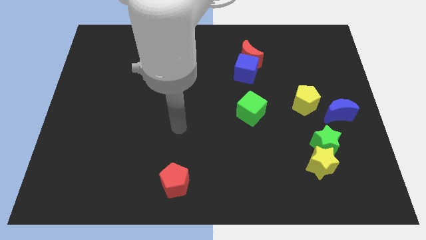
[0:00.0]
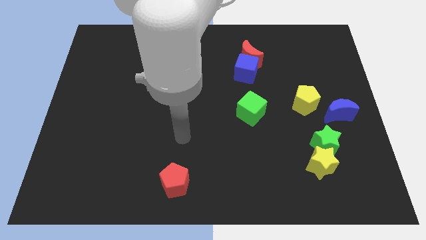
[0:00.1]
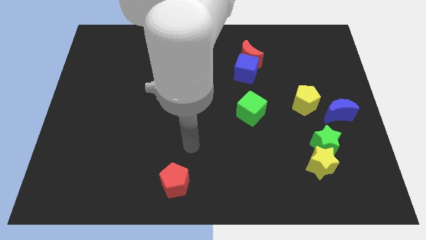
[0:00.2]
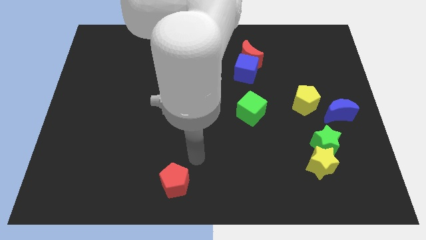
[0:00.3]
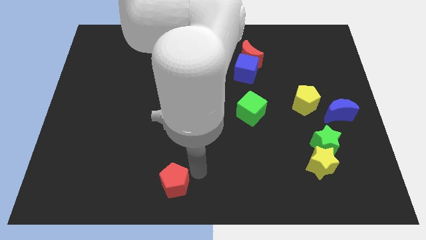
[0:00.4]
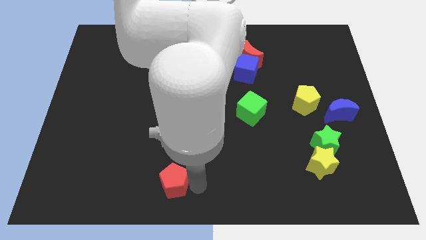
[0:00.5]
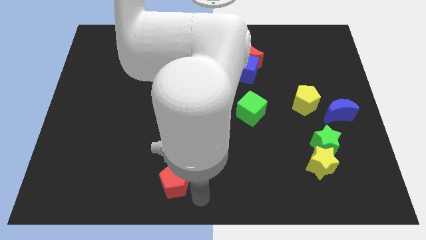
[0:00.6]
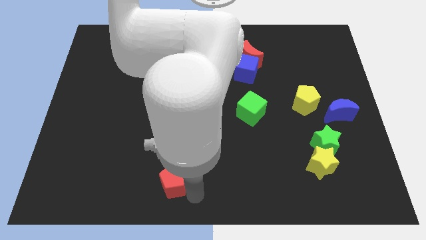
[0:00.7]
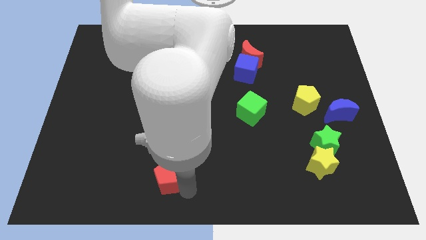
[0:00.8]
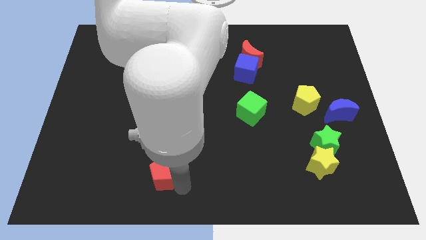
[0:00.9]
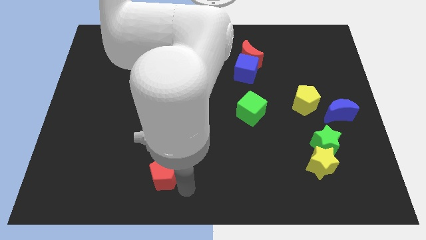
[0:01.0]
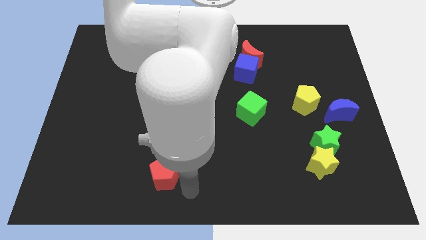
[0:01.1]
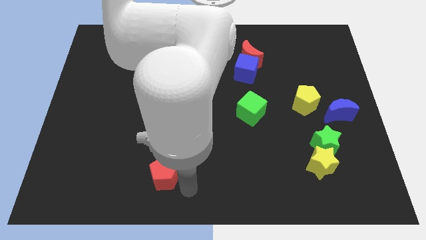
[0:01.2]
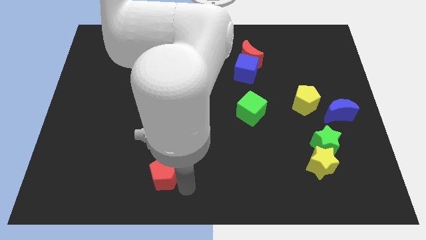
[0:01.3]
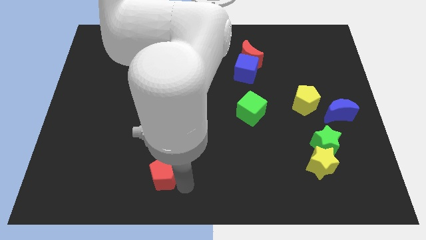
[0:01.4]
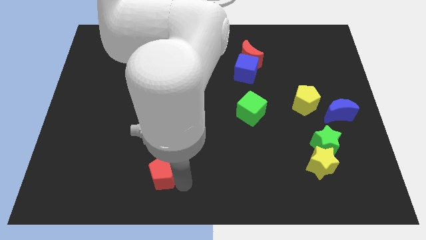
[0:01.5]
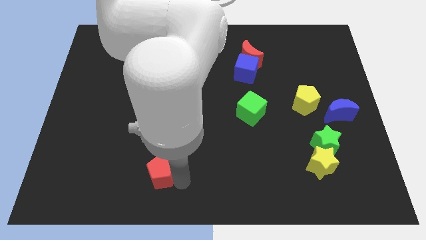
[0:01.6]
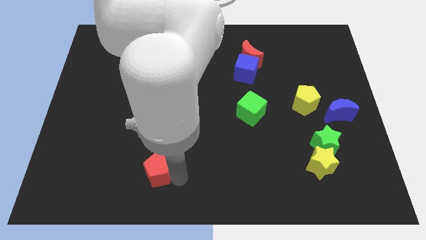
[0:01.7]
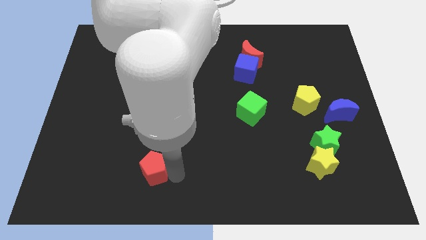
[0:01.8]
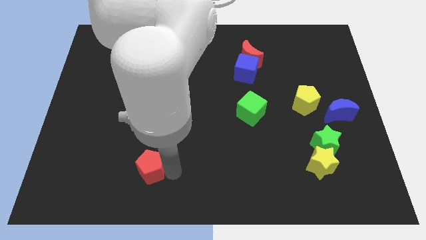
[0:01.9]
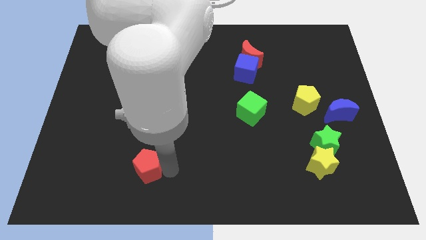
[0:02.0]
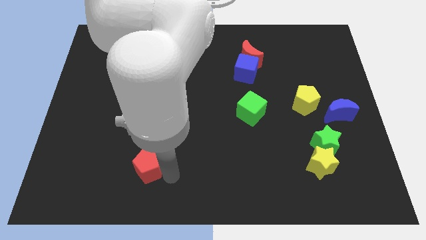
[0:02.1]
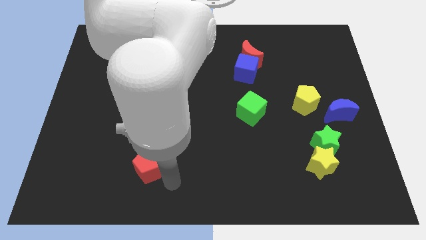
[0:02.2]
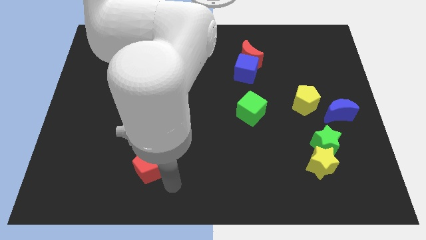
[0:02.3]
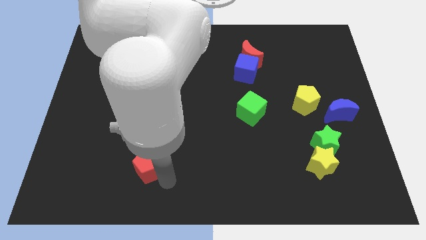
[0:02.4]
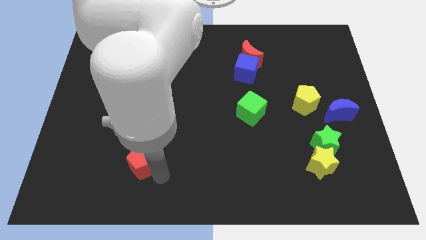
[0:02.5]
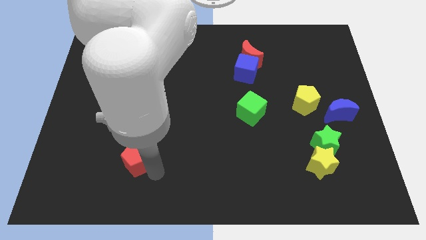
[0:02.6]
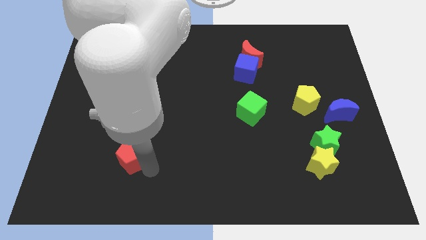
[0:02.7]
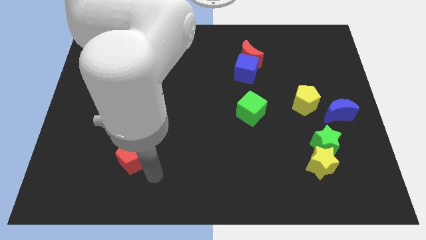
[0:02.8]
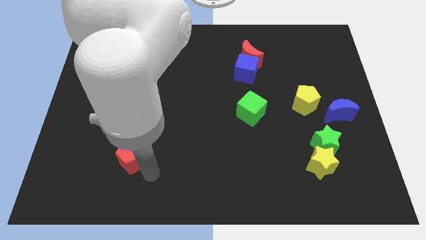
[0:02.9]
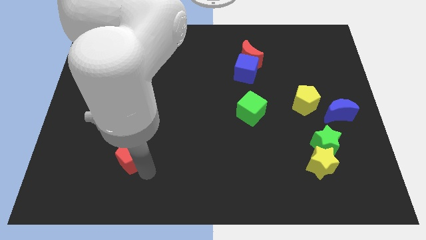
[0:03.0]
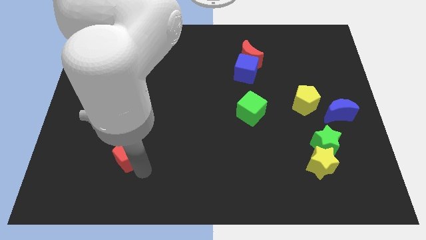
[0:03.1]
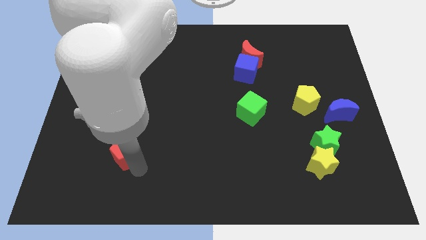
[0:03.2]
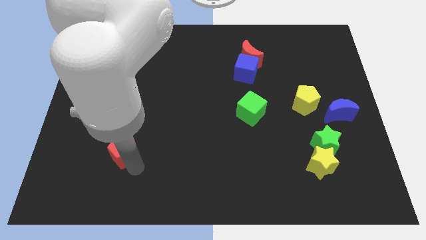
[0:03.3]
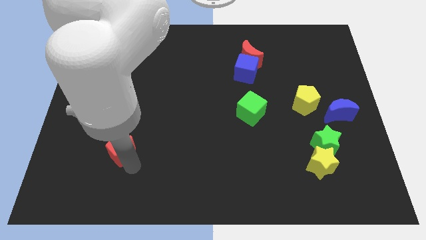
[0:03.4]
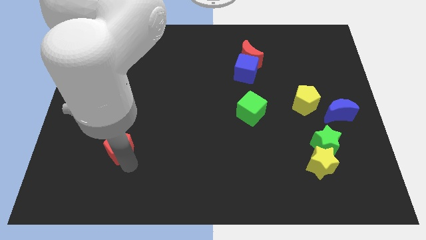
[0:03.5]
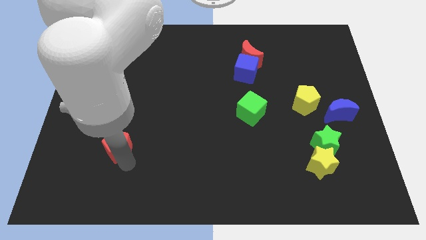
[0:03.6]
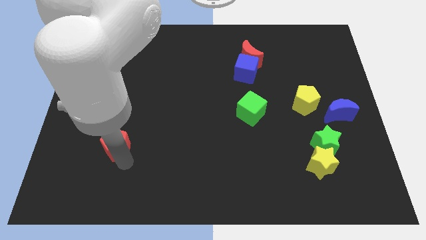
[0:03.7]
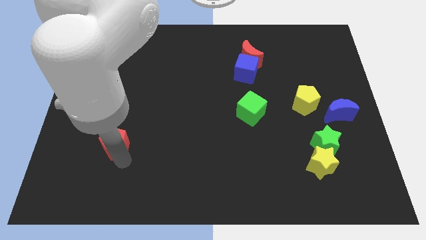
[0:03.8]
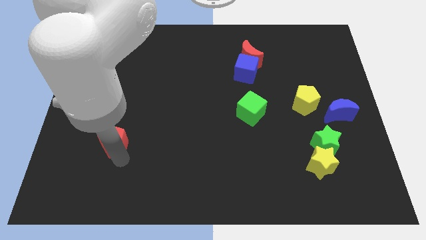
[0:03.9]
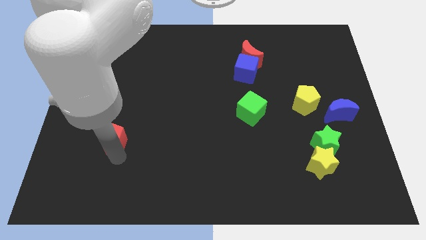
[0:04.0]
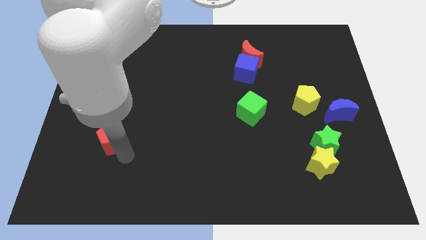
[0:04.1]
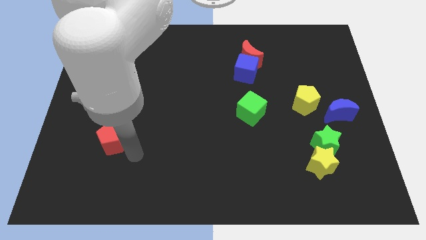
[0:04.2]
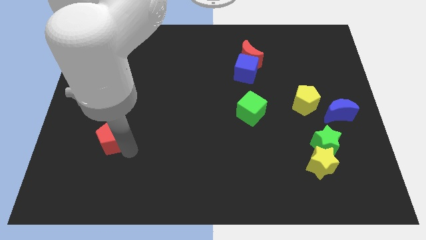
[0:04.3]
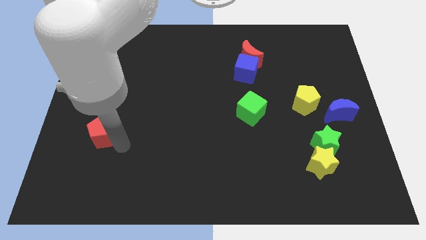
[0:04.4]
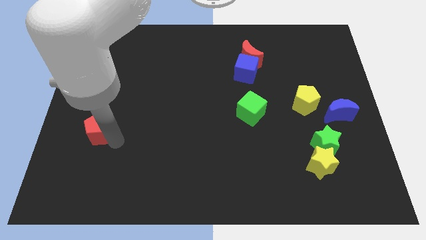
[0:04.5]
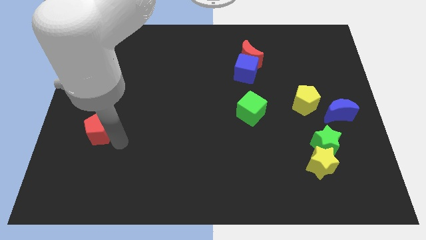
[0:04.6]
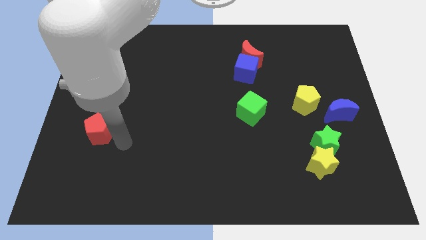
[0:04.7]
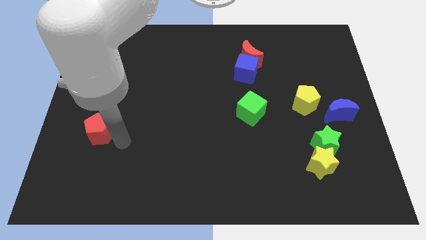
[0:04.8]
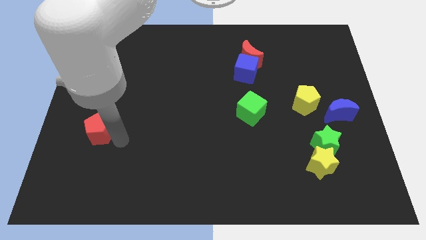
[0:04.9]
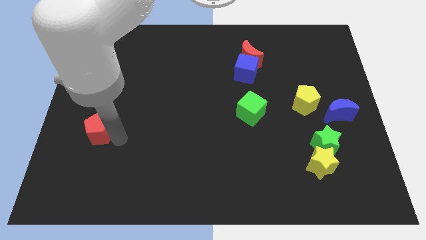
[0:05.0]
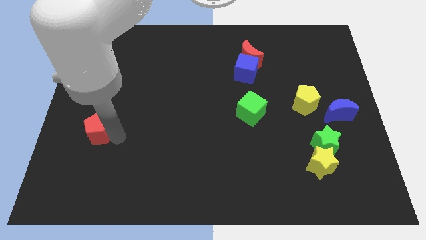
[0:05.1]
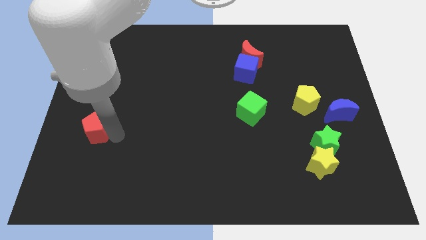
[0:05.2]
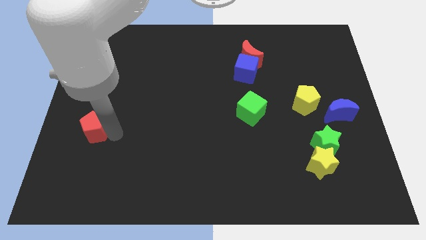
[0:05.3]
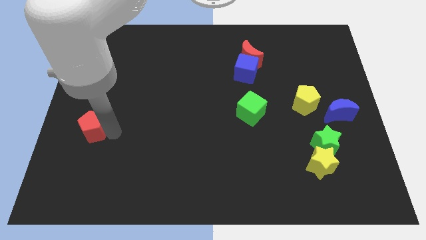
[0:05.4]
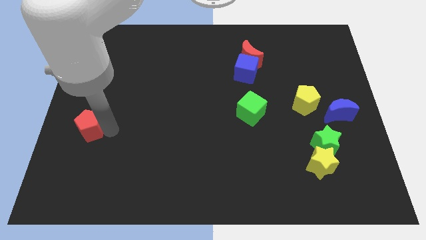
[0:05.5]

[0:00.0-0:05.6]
move the red pentagon to the left side
